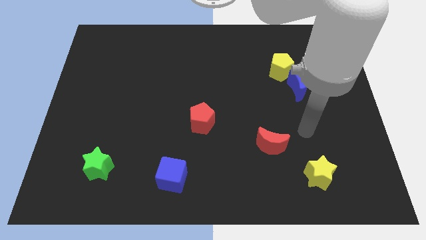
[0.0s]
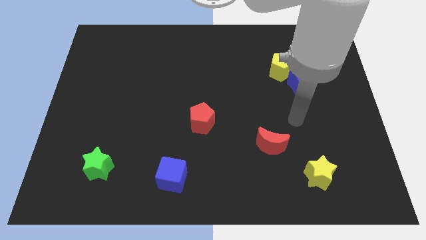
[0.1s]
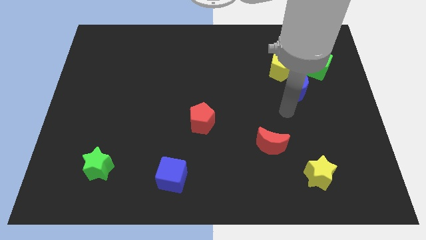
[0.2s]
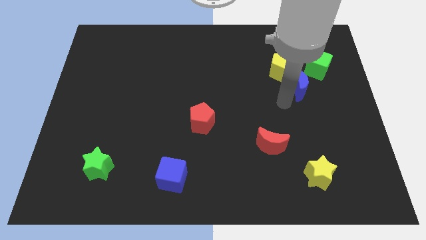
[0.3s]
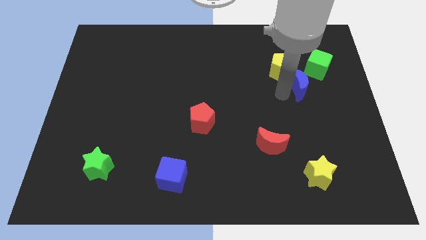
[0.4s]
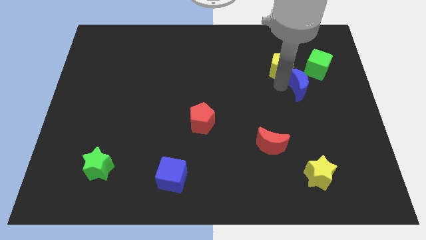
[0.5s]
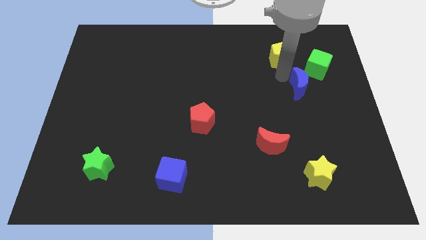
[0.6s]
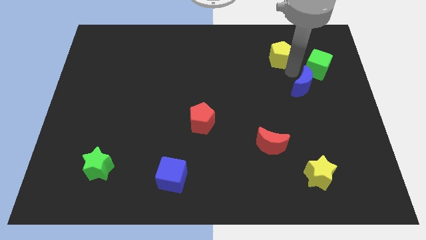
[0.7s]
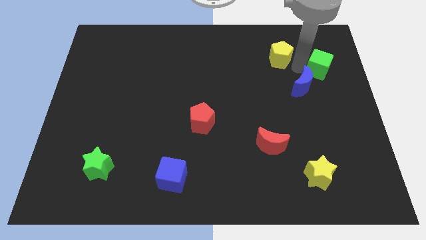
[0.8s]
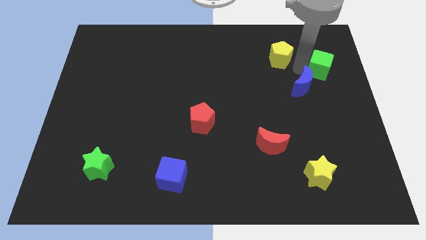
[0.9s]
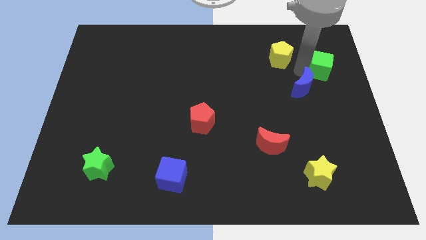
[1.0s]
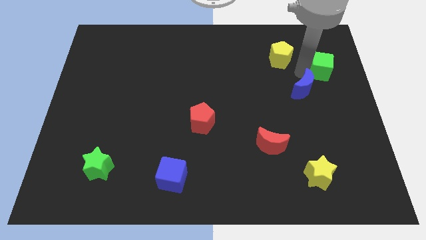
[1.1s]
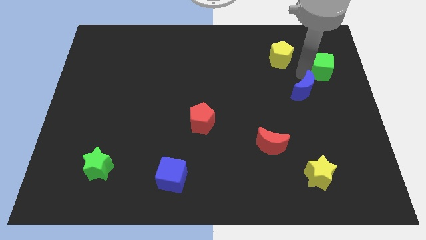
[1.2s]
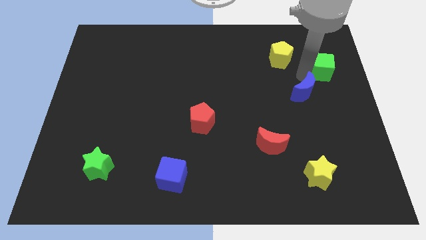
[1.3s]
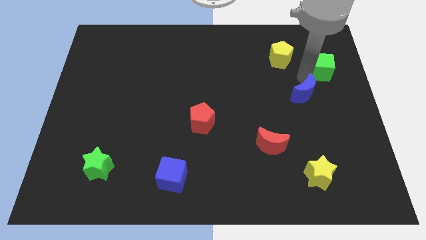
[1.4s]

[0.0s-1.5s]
pull the blue moon apart from the yellow pentagon and green cube

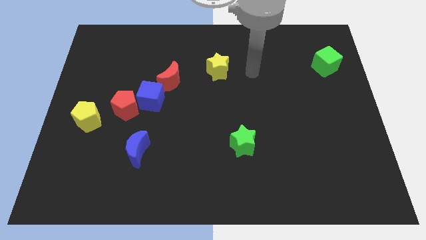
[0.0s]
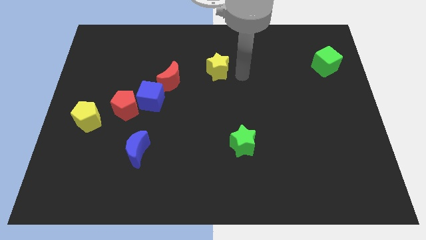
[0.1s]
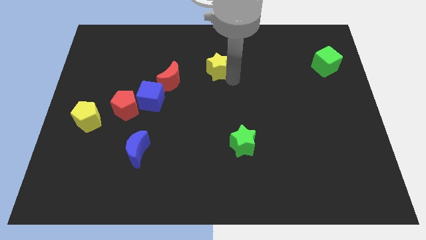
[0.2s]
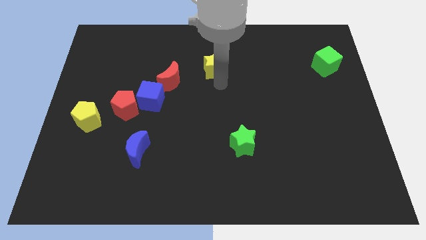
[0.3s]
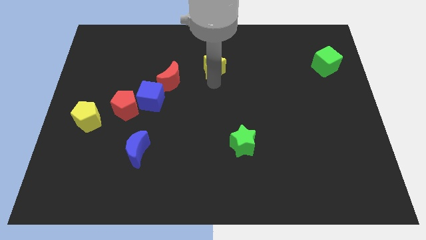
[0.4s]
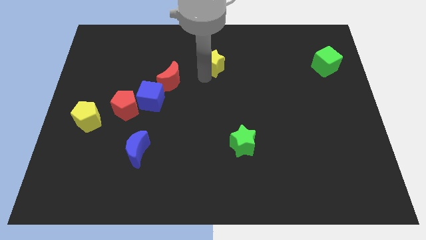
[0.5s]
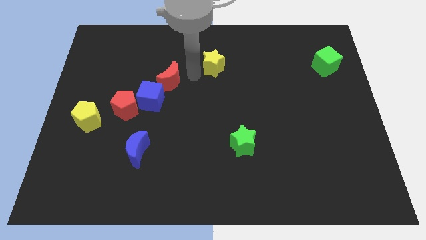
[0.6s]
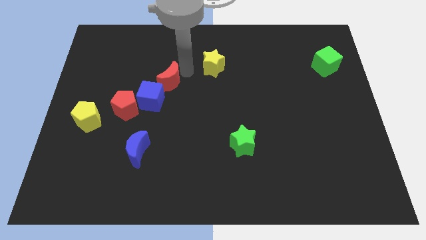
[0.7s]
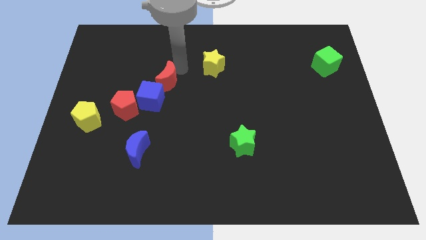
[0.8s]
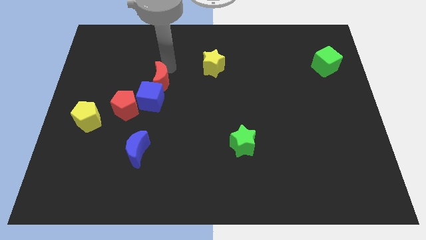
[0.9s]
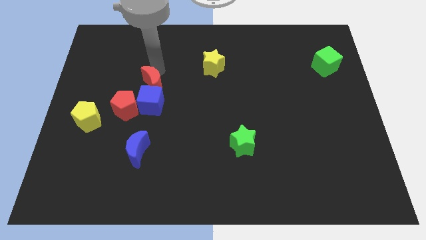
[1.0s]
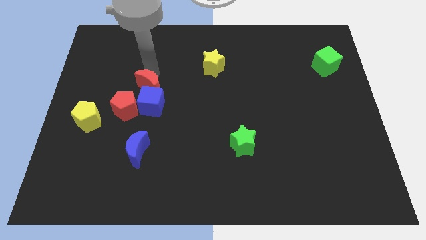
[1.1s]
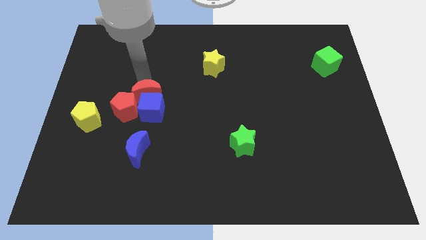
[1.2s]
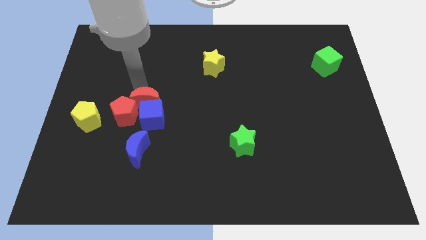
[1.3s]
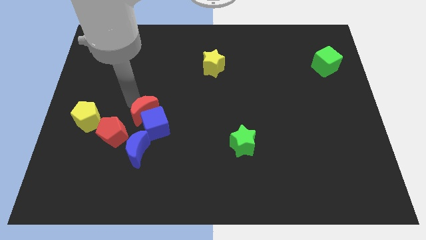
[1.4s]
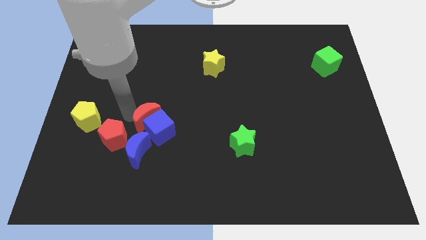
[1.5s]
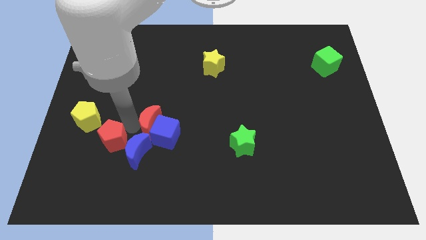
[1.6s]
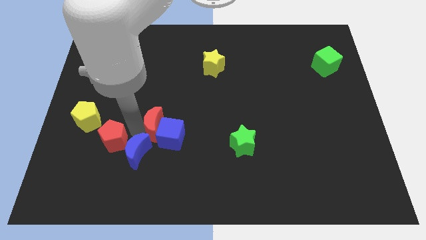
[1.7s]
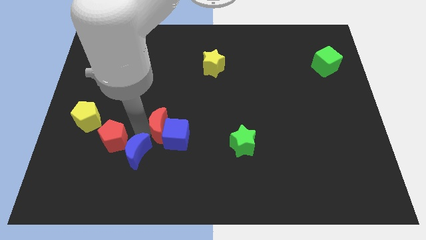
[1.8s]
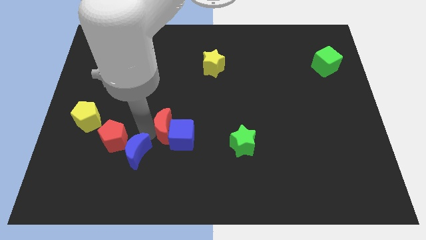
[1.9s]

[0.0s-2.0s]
separate the blue cube from the red pentagon and red moon

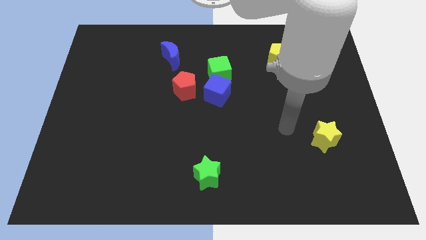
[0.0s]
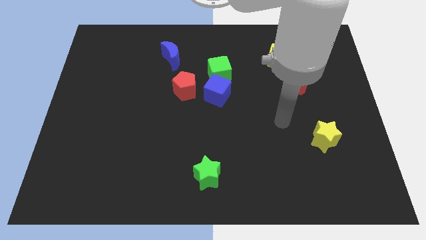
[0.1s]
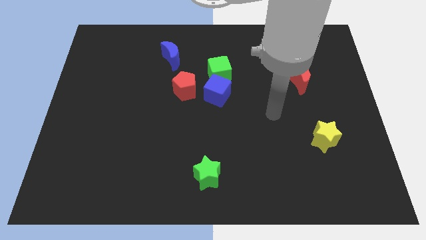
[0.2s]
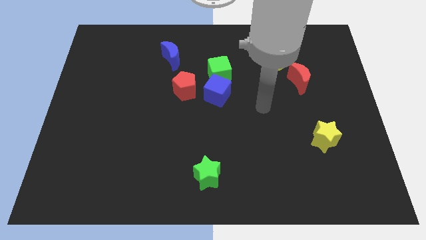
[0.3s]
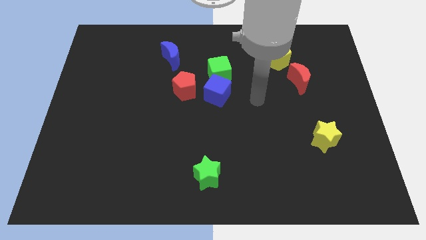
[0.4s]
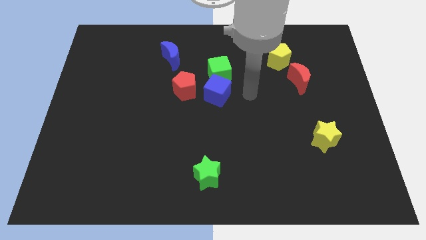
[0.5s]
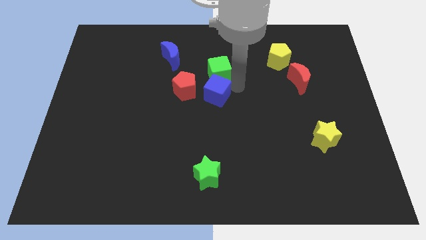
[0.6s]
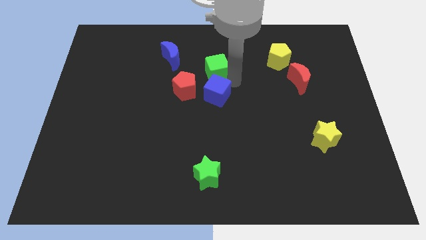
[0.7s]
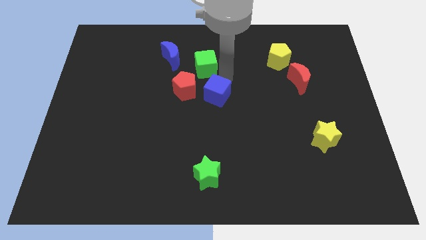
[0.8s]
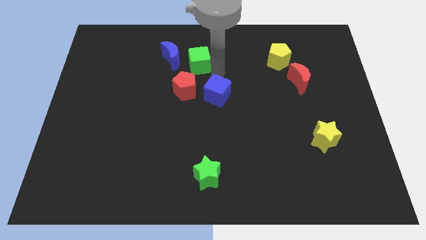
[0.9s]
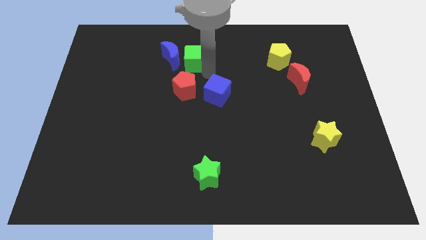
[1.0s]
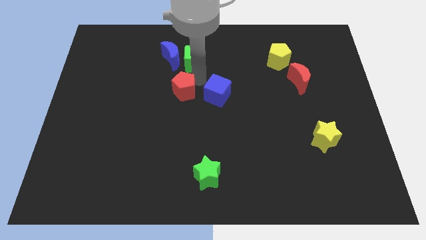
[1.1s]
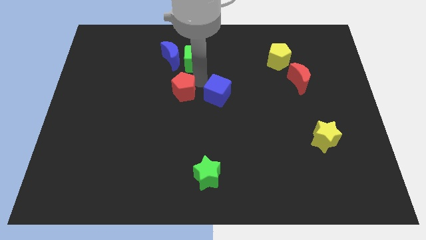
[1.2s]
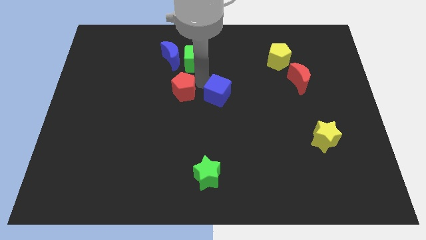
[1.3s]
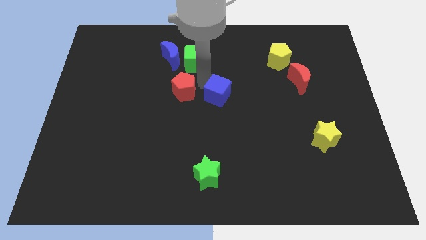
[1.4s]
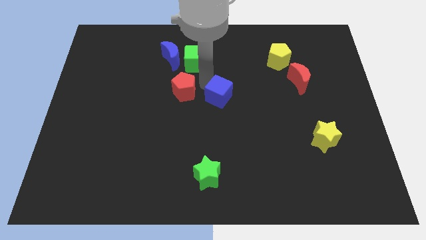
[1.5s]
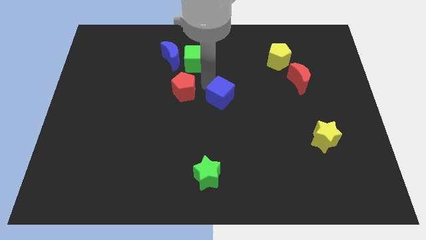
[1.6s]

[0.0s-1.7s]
separate the blue cube from the green cube and red pentagon

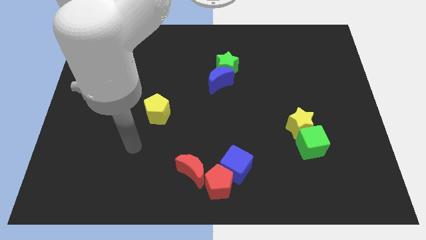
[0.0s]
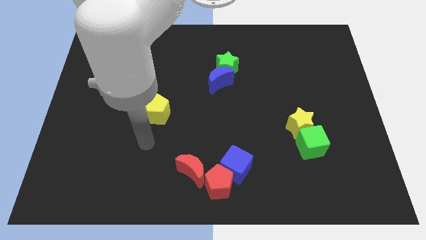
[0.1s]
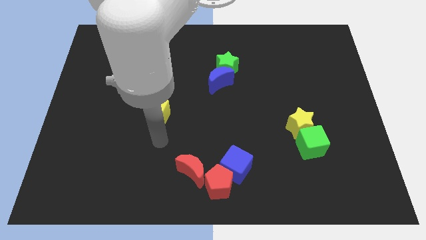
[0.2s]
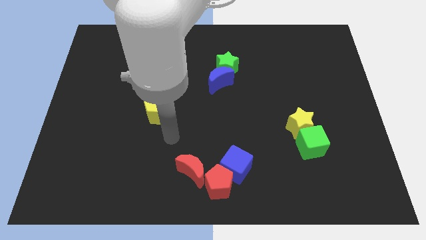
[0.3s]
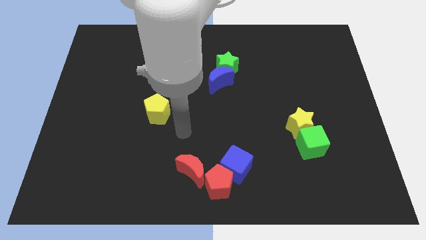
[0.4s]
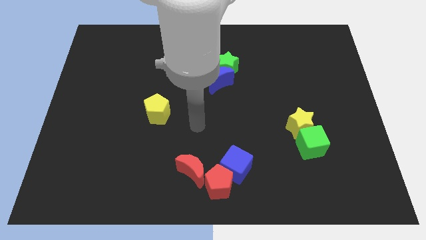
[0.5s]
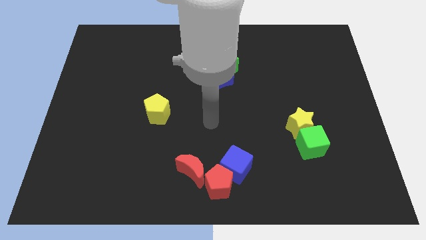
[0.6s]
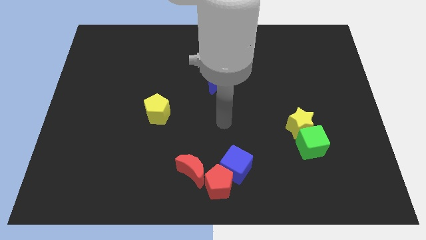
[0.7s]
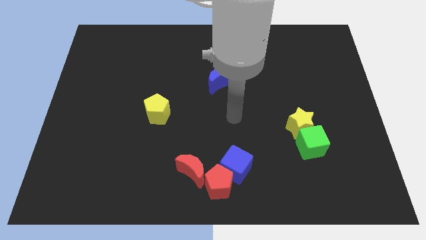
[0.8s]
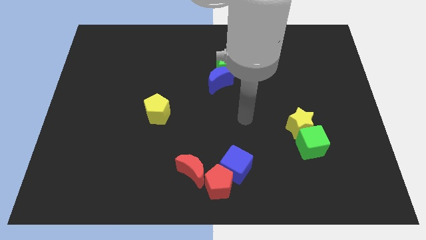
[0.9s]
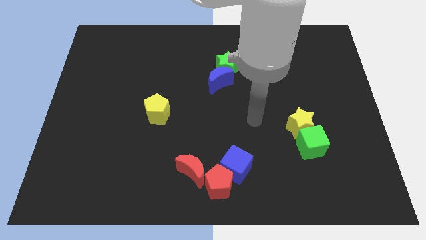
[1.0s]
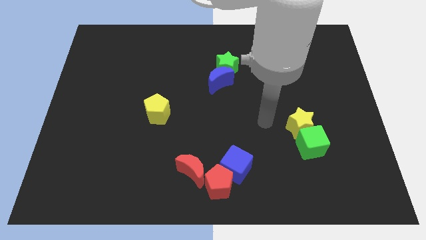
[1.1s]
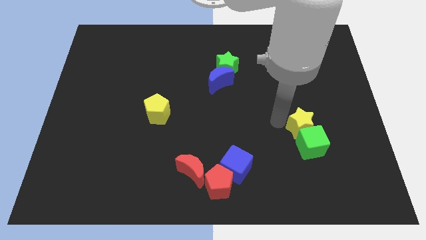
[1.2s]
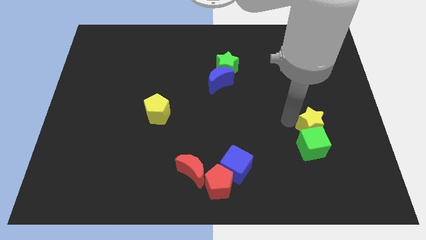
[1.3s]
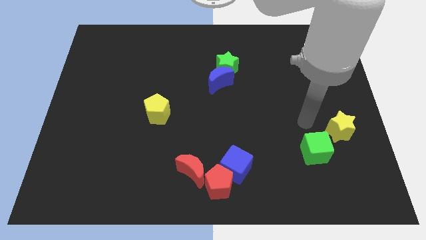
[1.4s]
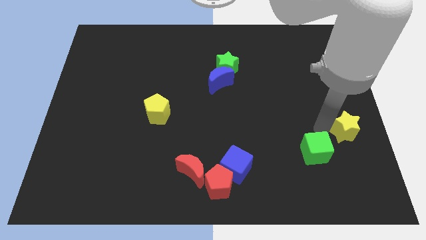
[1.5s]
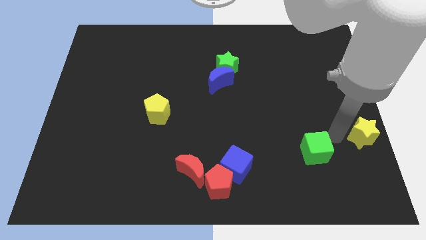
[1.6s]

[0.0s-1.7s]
move the green cube away from the yellow star

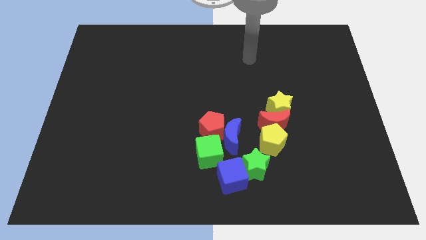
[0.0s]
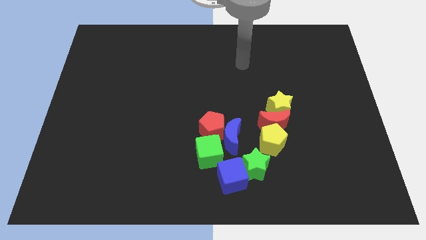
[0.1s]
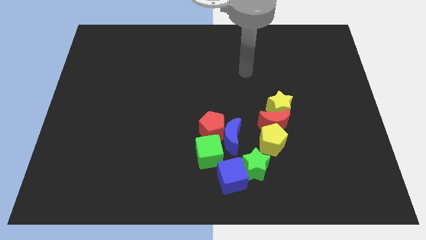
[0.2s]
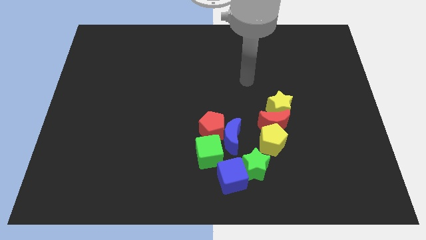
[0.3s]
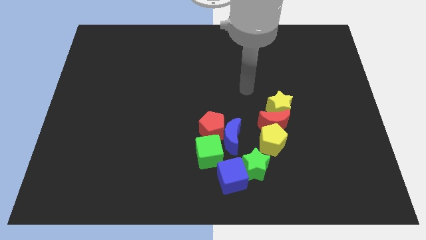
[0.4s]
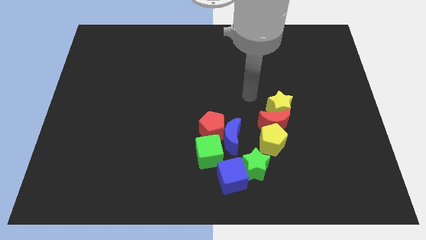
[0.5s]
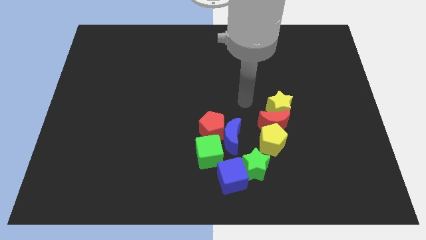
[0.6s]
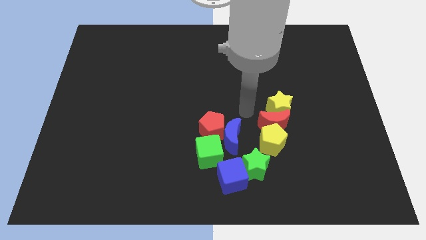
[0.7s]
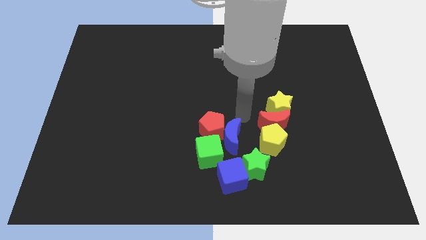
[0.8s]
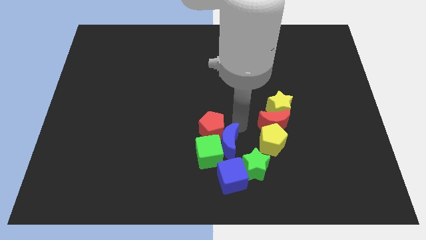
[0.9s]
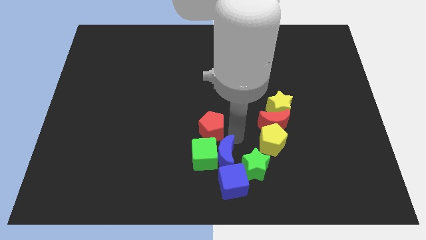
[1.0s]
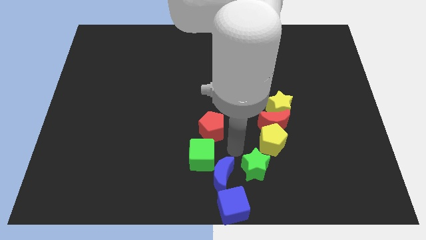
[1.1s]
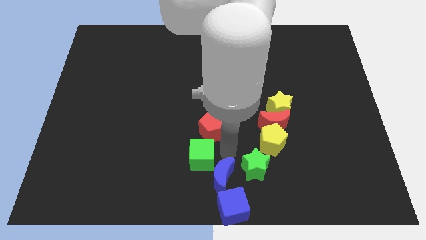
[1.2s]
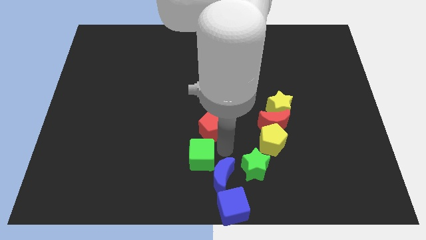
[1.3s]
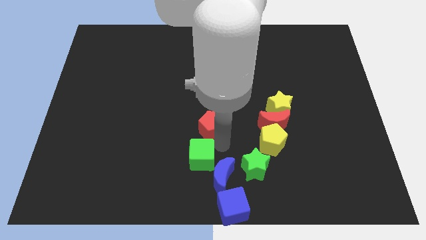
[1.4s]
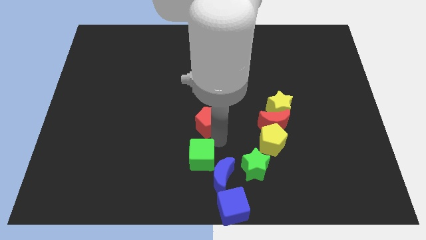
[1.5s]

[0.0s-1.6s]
move the red pentagon away from the blue moon and green cube

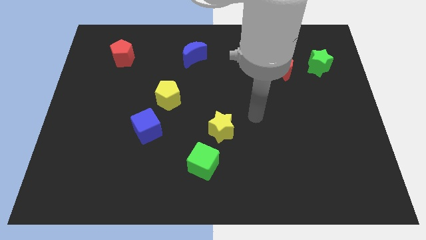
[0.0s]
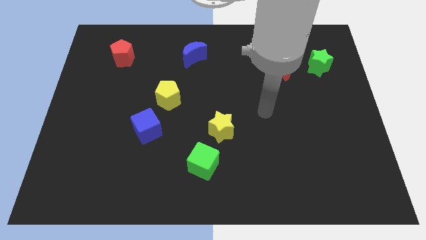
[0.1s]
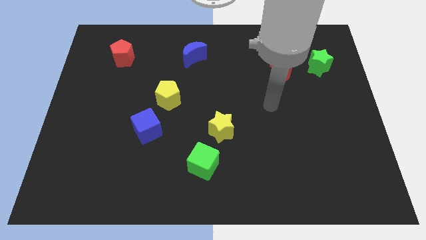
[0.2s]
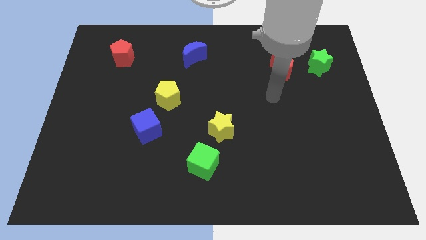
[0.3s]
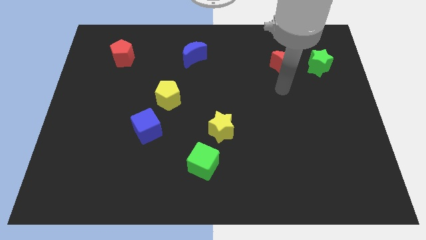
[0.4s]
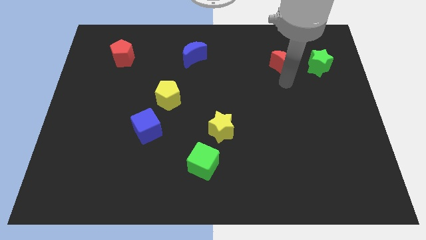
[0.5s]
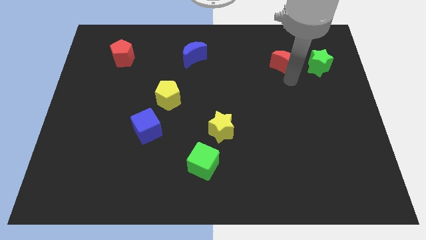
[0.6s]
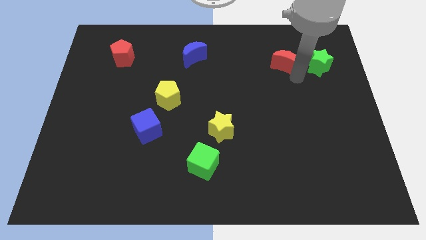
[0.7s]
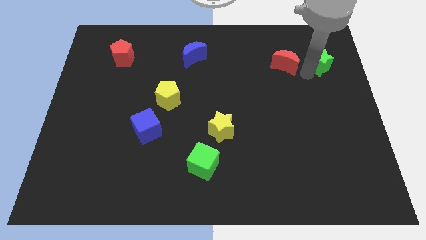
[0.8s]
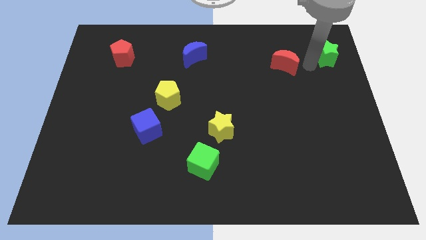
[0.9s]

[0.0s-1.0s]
separate the red moon from the green star
